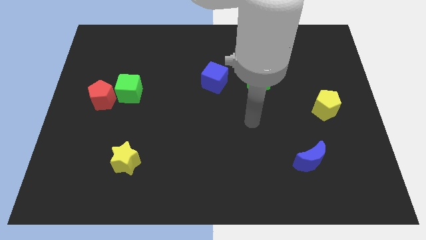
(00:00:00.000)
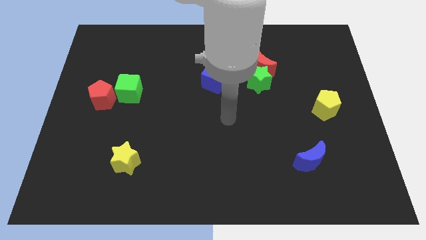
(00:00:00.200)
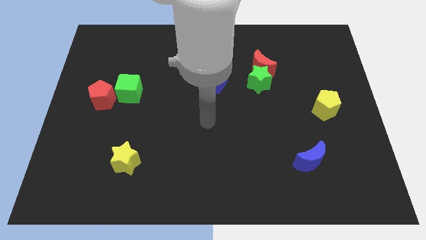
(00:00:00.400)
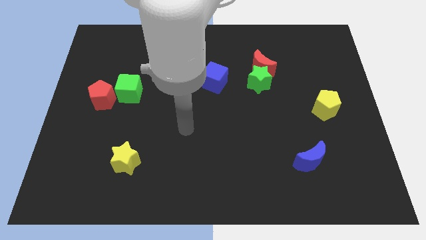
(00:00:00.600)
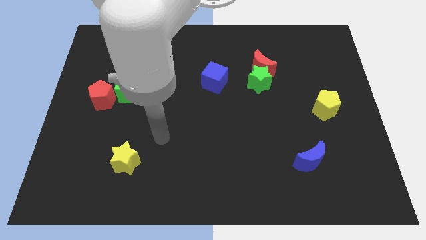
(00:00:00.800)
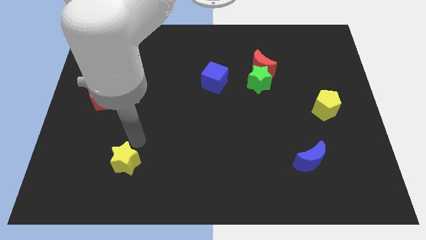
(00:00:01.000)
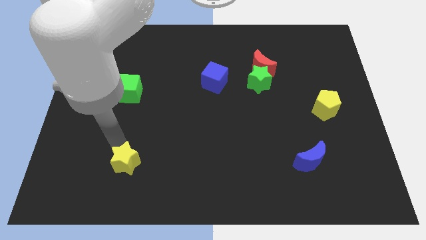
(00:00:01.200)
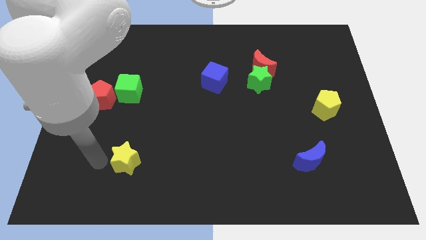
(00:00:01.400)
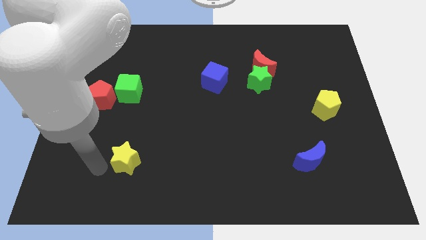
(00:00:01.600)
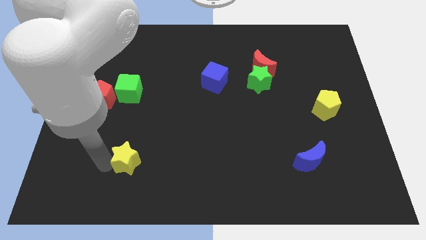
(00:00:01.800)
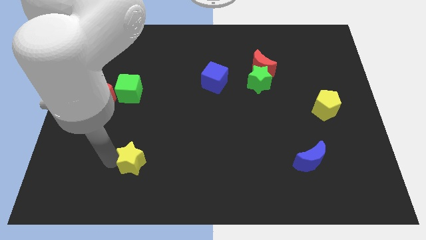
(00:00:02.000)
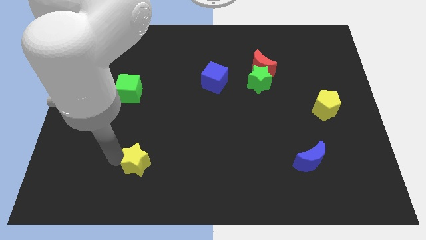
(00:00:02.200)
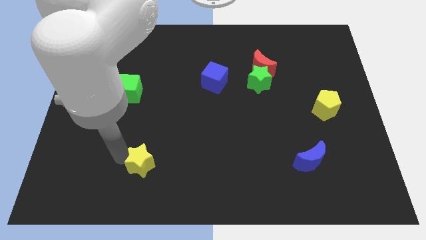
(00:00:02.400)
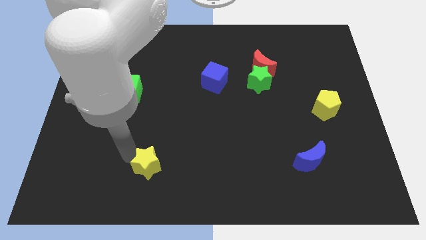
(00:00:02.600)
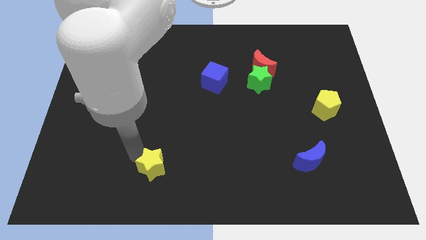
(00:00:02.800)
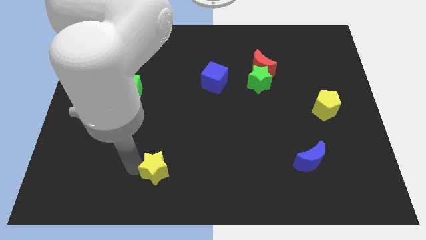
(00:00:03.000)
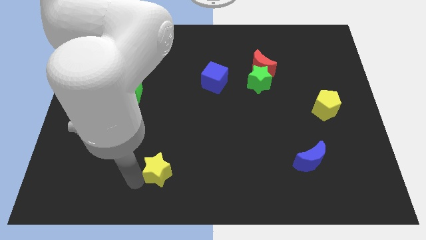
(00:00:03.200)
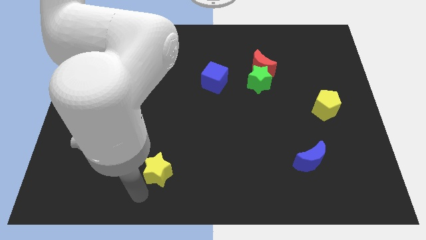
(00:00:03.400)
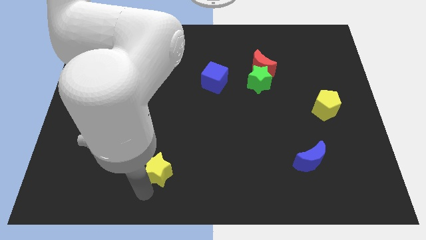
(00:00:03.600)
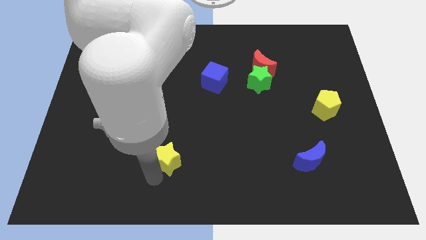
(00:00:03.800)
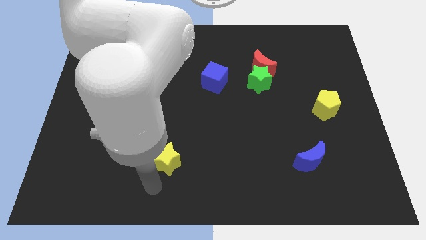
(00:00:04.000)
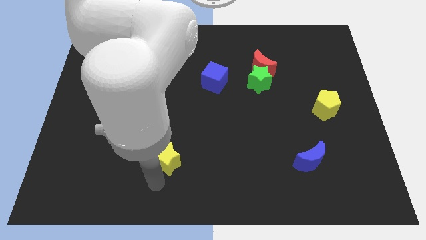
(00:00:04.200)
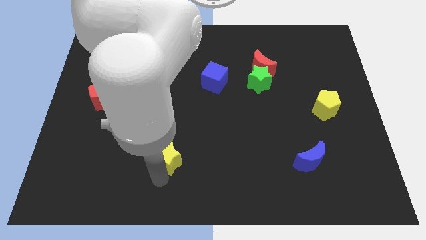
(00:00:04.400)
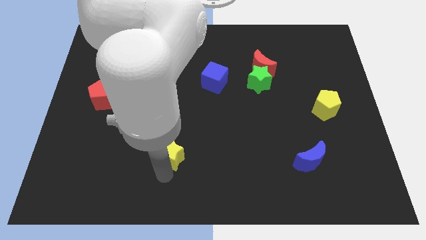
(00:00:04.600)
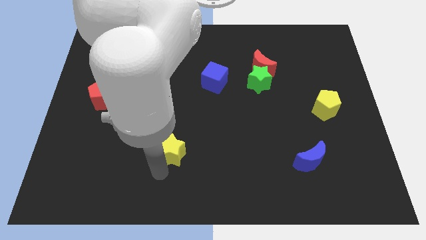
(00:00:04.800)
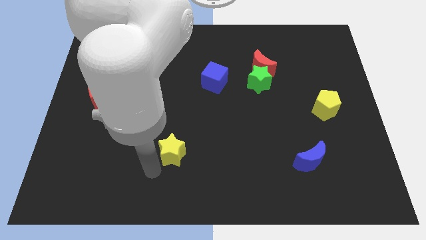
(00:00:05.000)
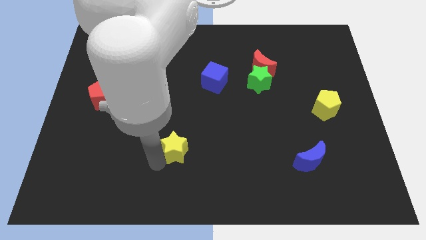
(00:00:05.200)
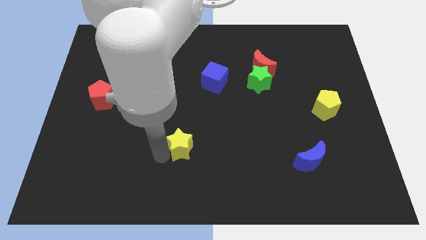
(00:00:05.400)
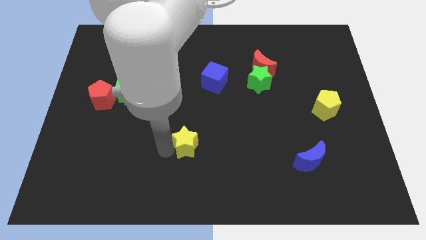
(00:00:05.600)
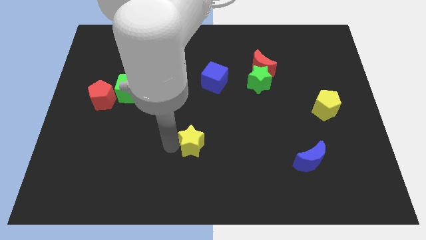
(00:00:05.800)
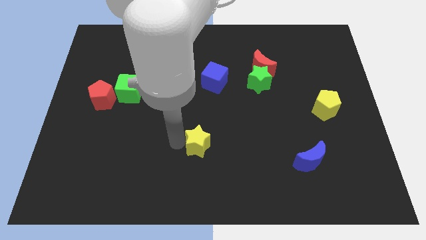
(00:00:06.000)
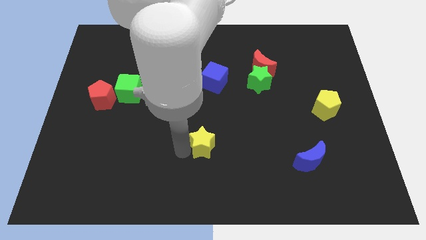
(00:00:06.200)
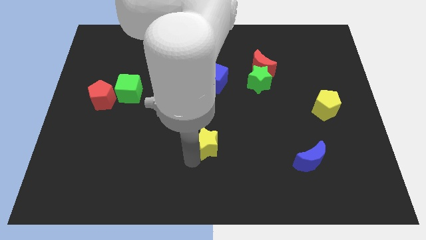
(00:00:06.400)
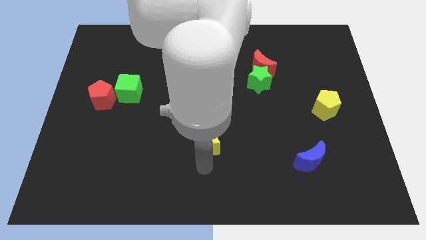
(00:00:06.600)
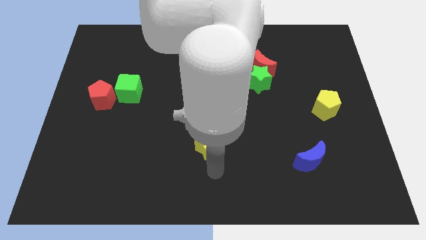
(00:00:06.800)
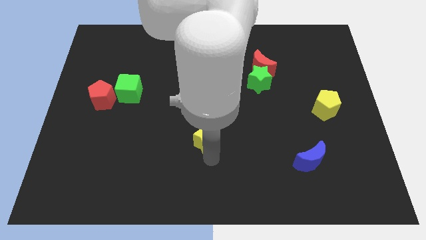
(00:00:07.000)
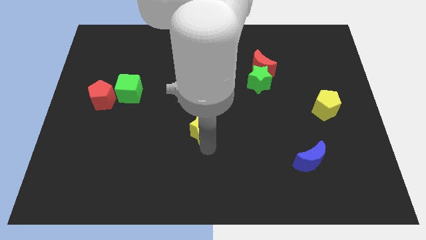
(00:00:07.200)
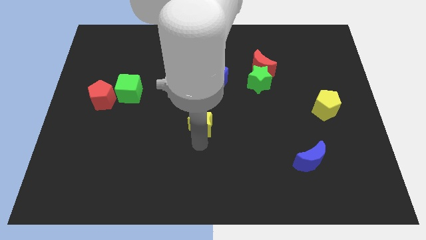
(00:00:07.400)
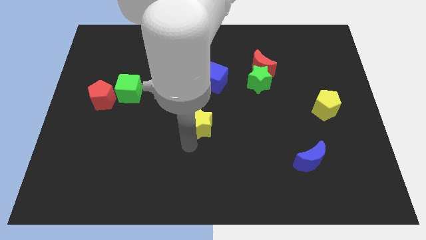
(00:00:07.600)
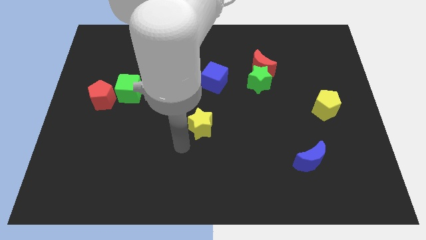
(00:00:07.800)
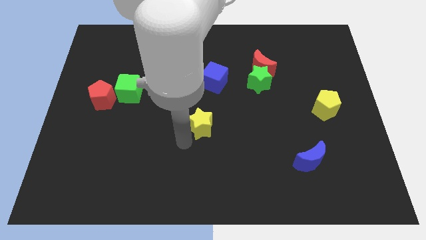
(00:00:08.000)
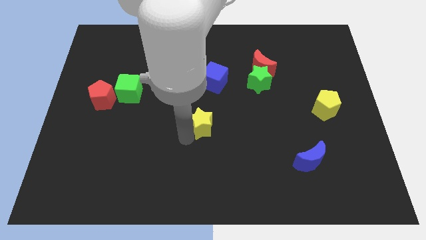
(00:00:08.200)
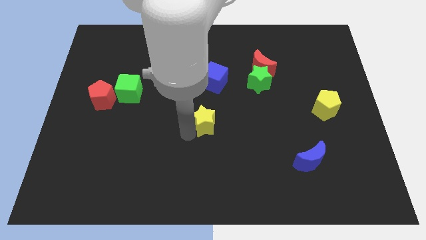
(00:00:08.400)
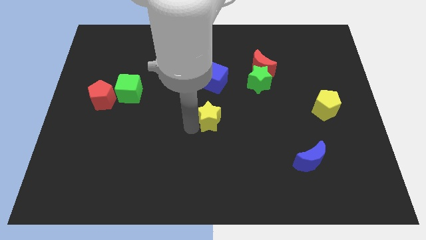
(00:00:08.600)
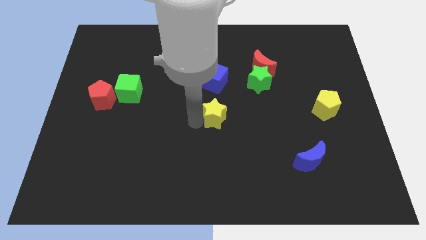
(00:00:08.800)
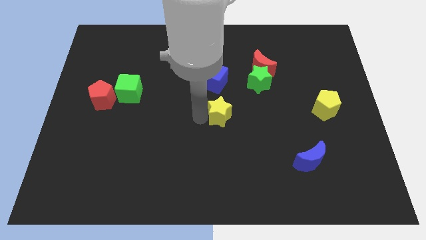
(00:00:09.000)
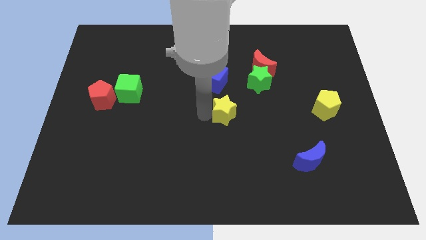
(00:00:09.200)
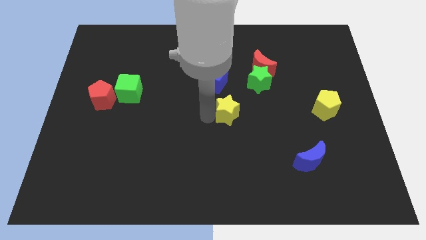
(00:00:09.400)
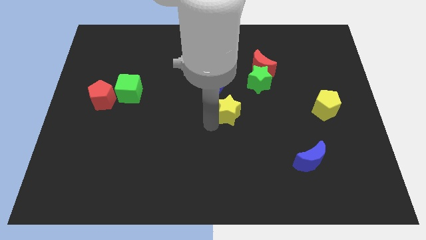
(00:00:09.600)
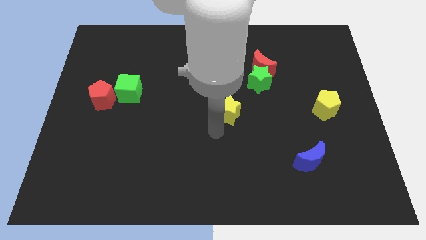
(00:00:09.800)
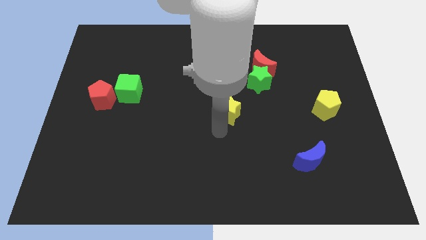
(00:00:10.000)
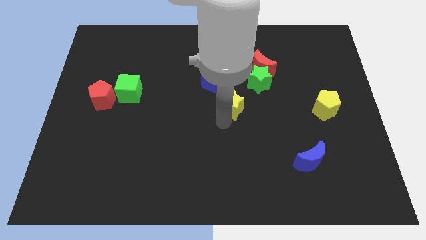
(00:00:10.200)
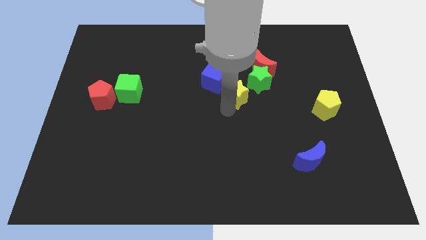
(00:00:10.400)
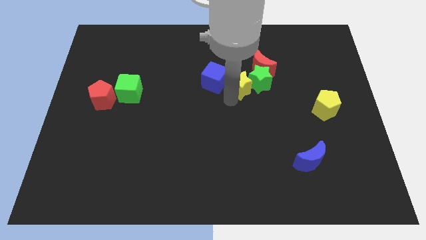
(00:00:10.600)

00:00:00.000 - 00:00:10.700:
slide the yellow star to the green star

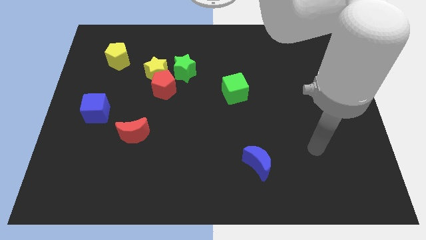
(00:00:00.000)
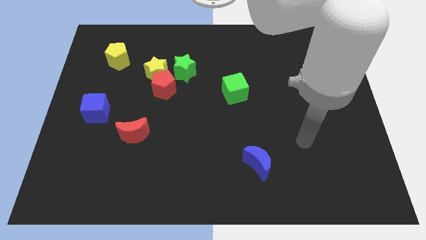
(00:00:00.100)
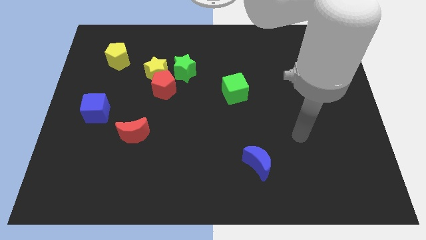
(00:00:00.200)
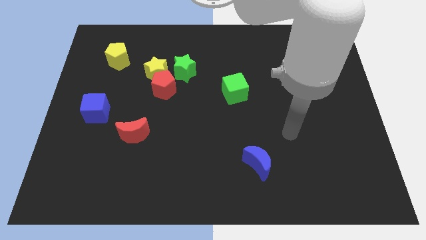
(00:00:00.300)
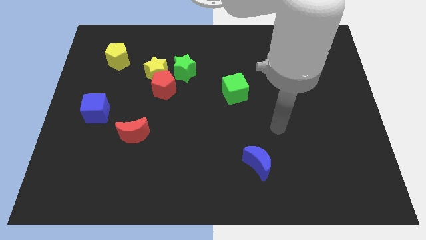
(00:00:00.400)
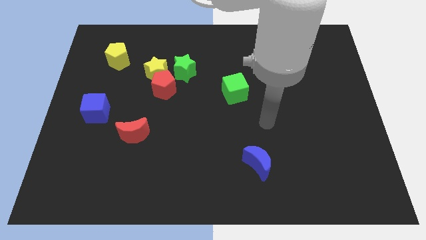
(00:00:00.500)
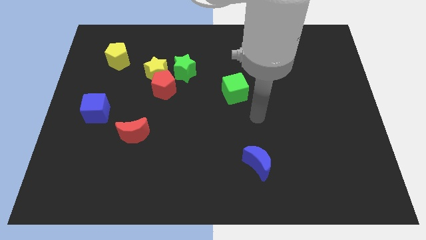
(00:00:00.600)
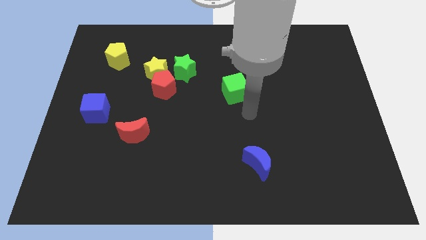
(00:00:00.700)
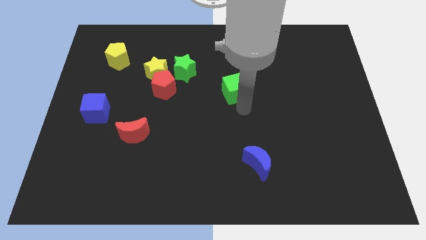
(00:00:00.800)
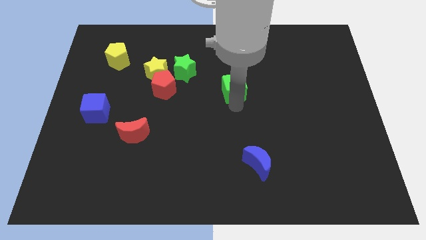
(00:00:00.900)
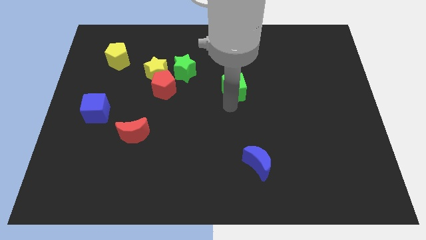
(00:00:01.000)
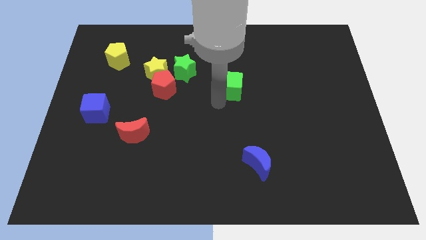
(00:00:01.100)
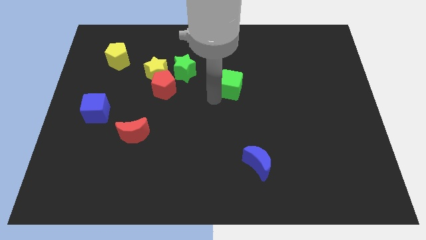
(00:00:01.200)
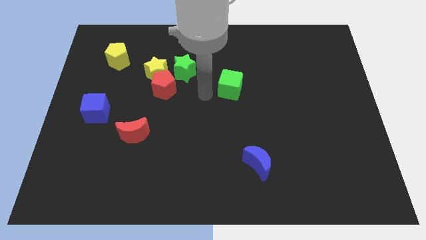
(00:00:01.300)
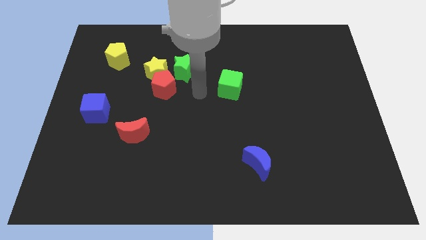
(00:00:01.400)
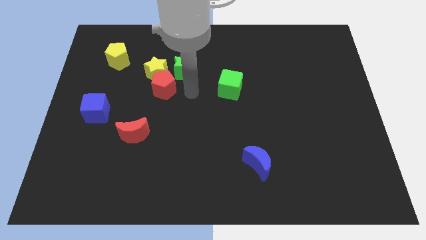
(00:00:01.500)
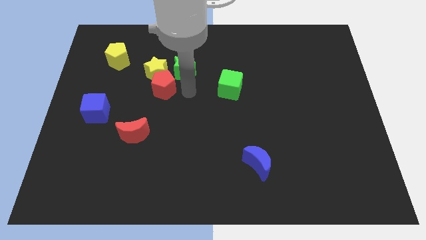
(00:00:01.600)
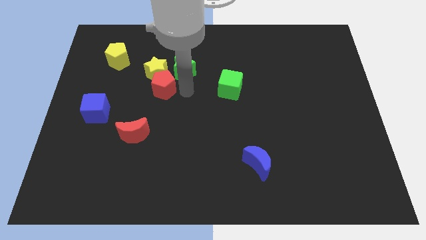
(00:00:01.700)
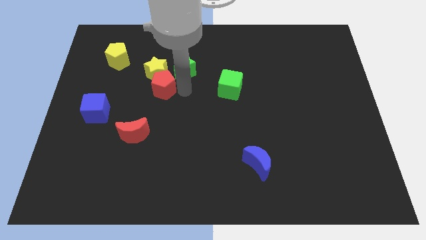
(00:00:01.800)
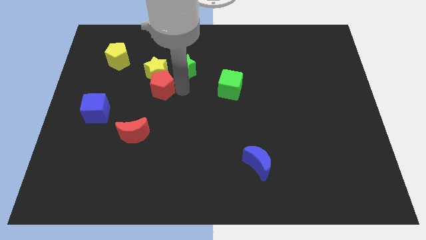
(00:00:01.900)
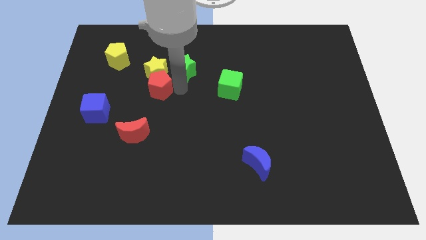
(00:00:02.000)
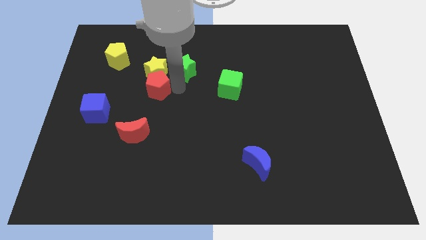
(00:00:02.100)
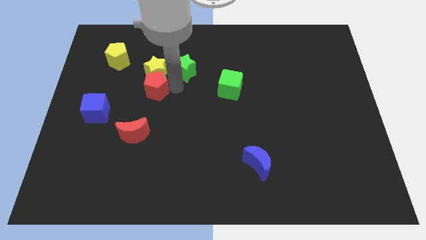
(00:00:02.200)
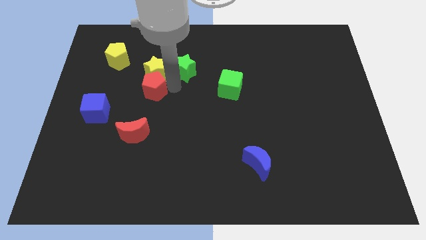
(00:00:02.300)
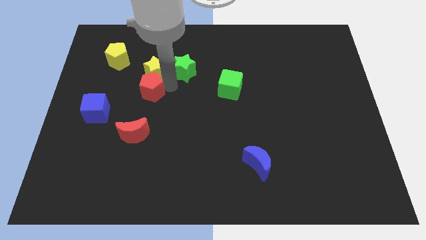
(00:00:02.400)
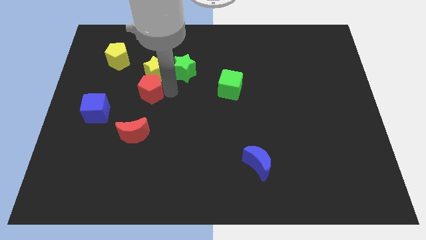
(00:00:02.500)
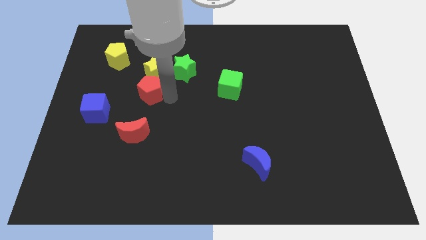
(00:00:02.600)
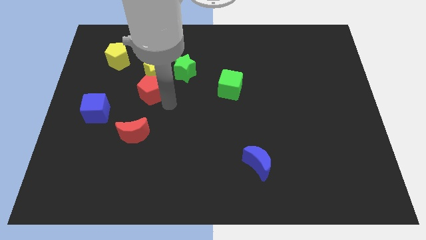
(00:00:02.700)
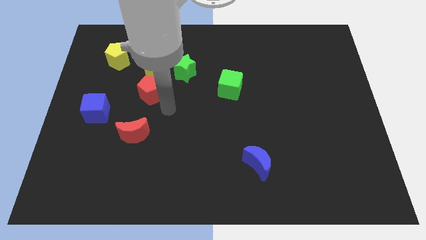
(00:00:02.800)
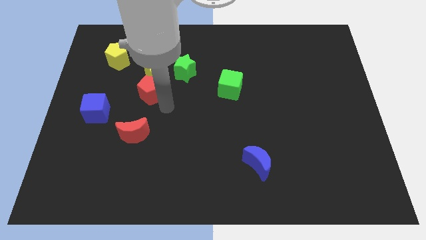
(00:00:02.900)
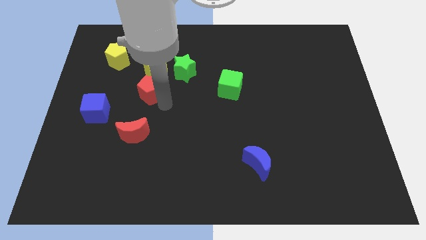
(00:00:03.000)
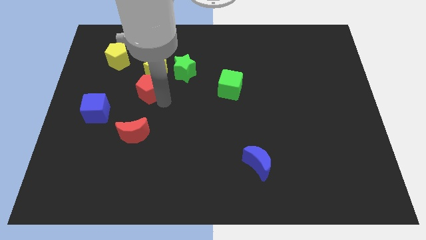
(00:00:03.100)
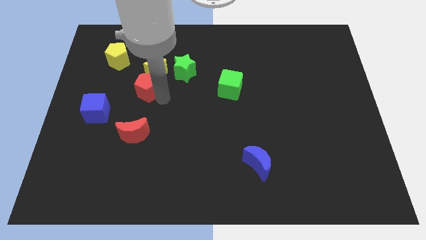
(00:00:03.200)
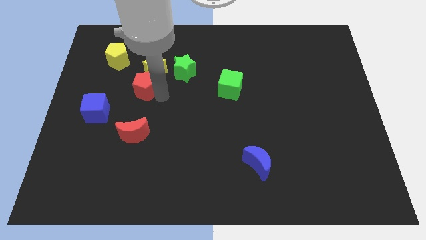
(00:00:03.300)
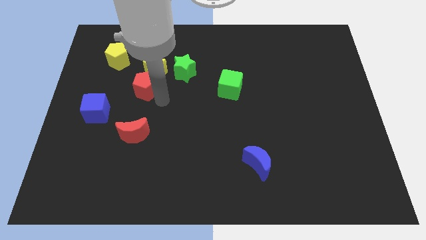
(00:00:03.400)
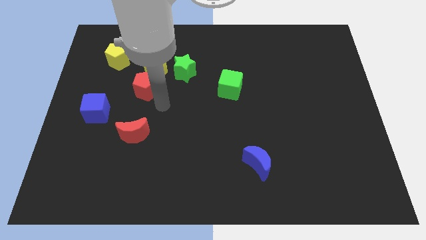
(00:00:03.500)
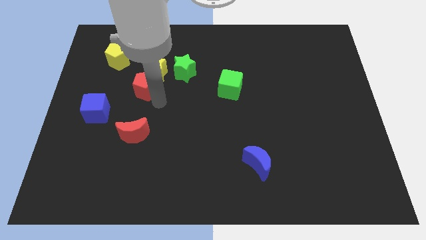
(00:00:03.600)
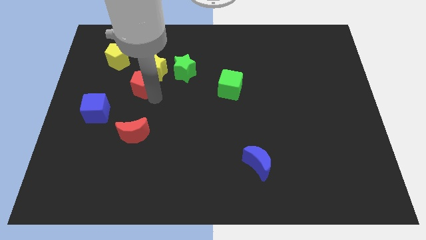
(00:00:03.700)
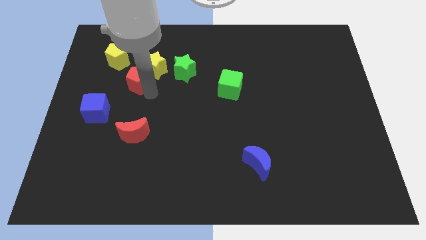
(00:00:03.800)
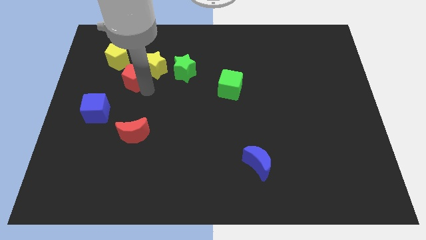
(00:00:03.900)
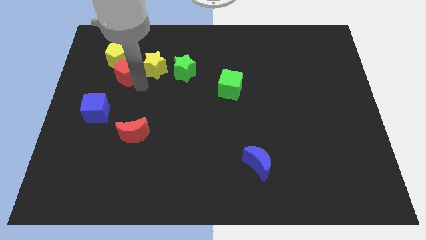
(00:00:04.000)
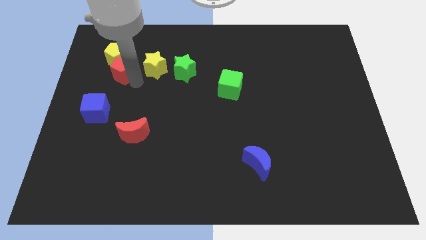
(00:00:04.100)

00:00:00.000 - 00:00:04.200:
move the red pentagon next to the yellow pentagon
